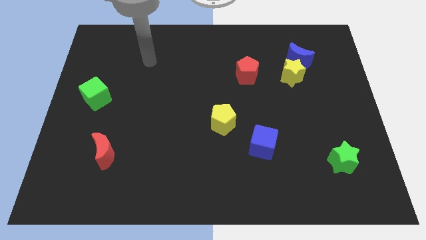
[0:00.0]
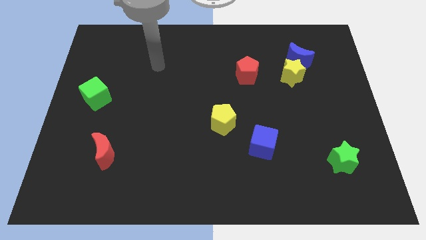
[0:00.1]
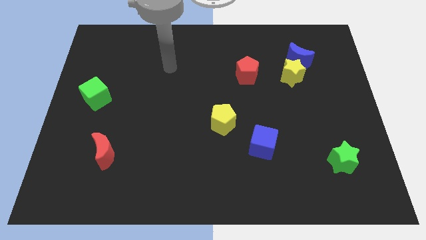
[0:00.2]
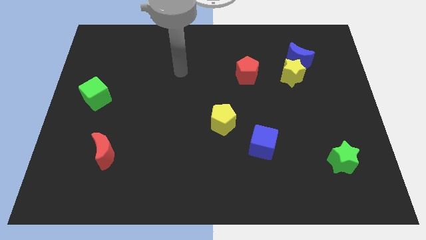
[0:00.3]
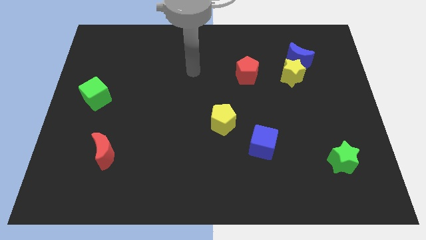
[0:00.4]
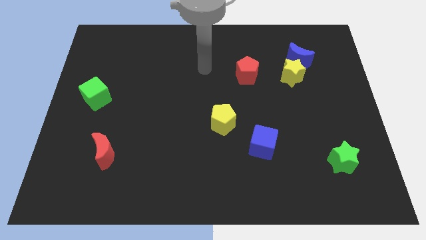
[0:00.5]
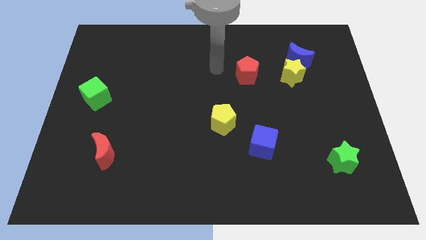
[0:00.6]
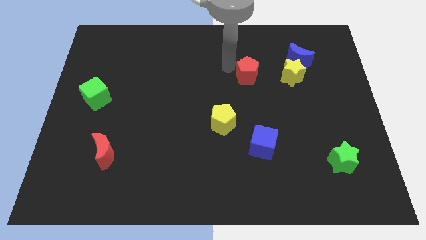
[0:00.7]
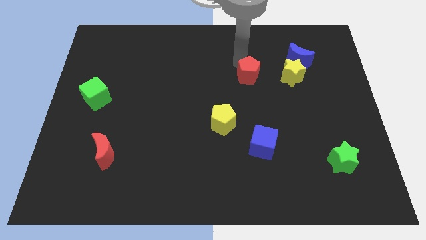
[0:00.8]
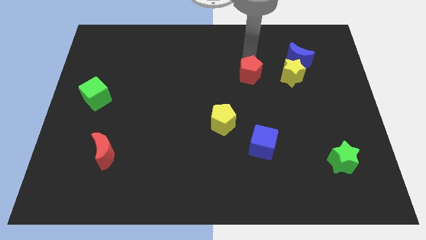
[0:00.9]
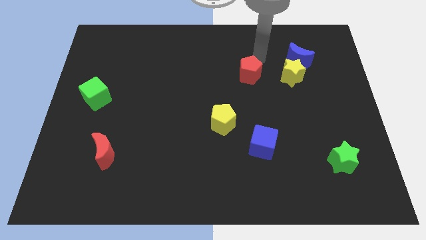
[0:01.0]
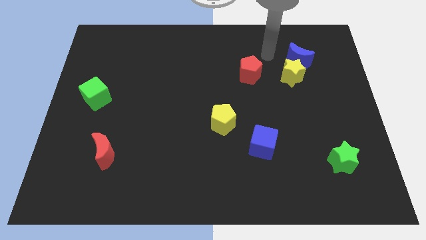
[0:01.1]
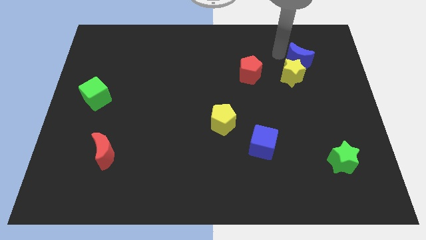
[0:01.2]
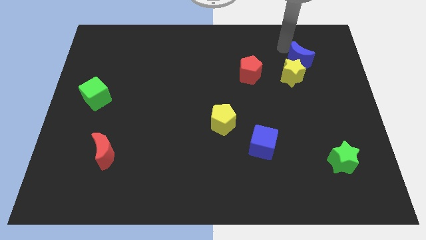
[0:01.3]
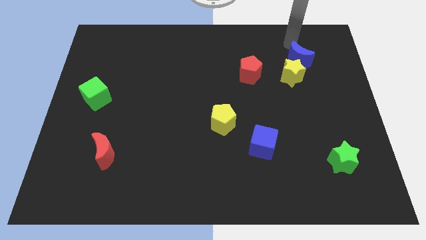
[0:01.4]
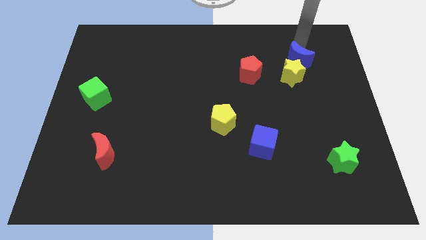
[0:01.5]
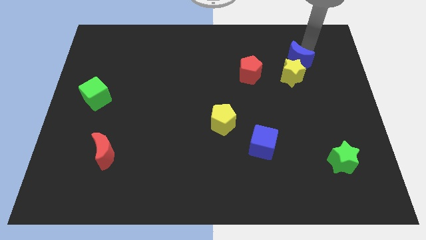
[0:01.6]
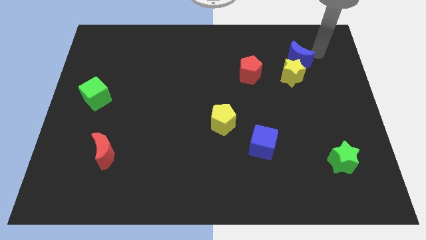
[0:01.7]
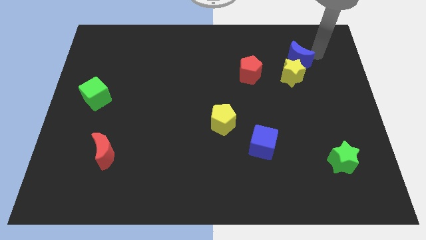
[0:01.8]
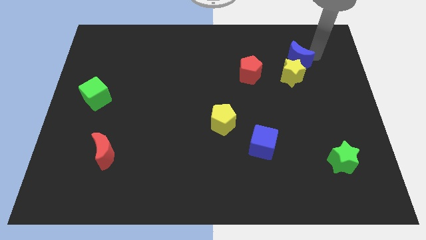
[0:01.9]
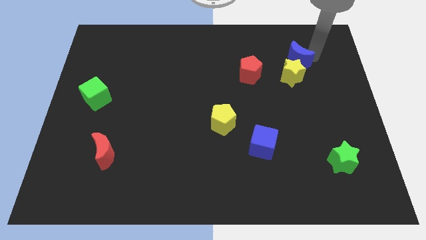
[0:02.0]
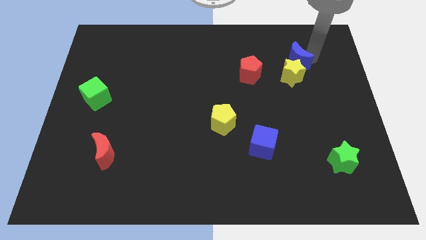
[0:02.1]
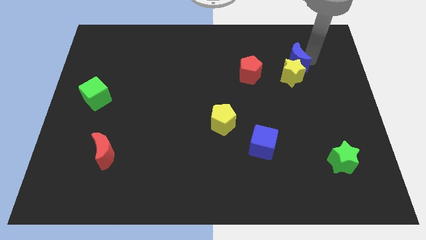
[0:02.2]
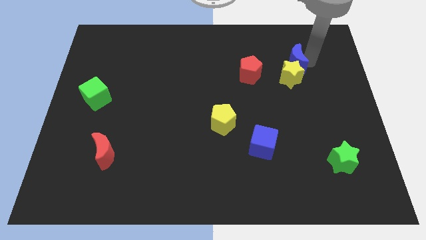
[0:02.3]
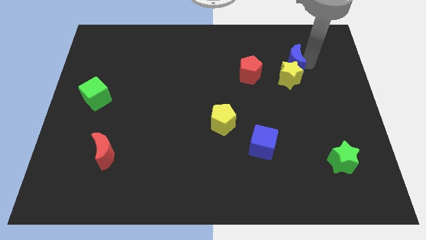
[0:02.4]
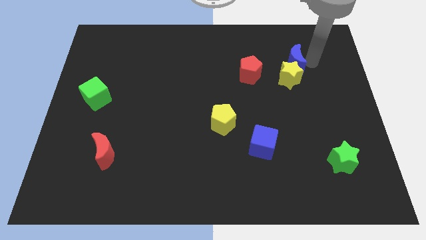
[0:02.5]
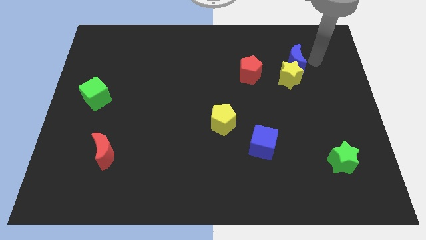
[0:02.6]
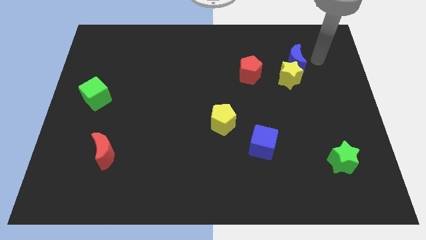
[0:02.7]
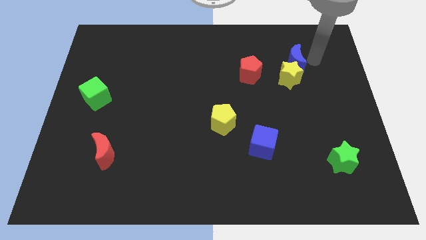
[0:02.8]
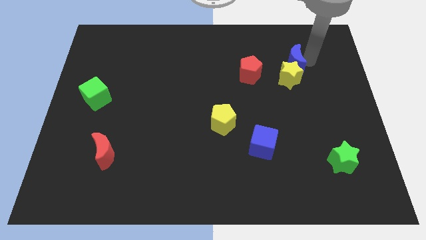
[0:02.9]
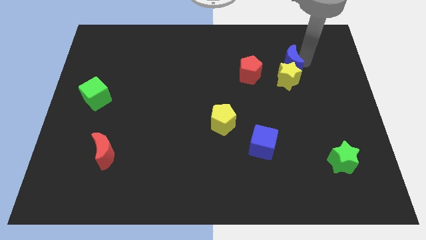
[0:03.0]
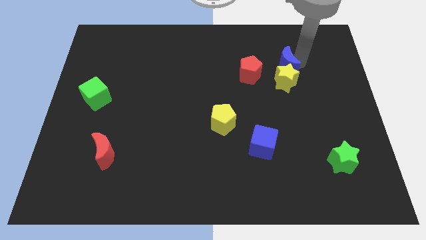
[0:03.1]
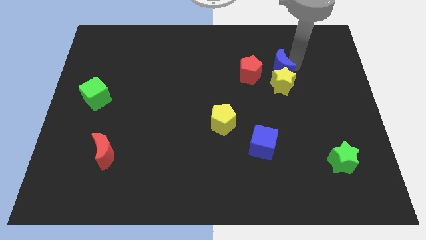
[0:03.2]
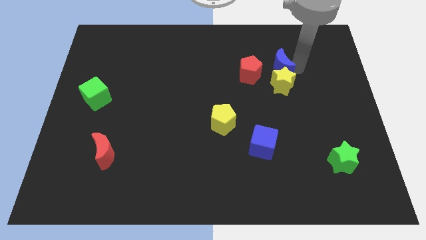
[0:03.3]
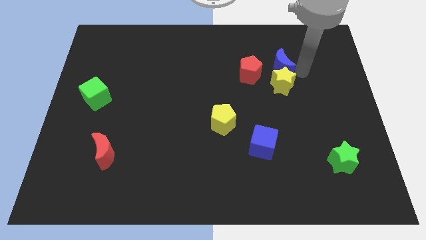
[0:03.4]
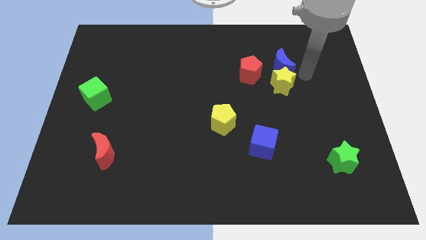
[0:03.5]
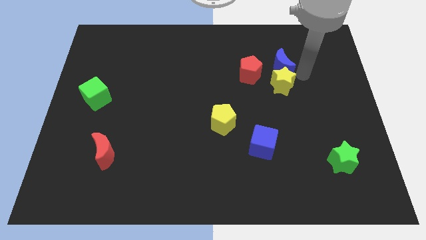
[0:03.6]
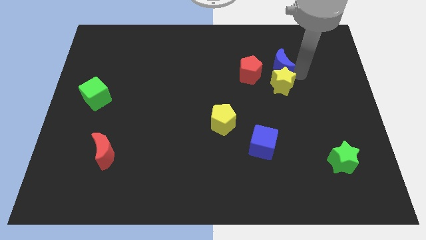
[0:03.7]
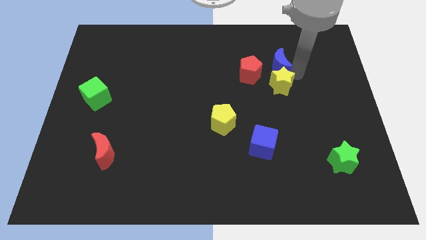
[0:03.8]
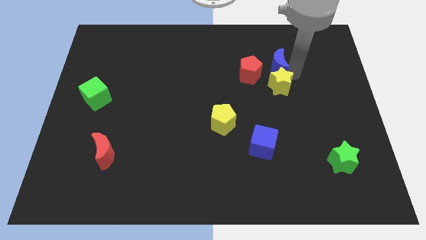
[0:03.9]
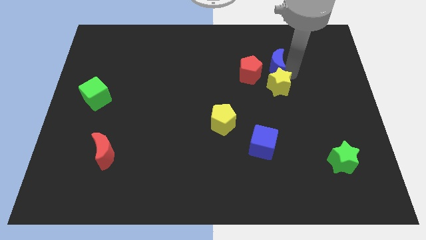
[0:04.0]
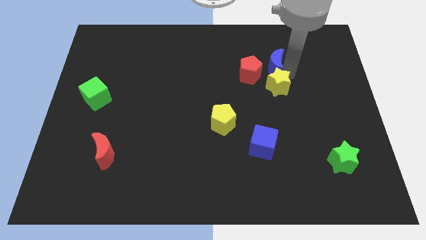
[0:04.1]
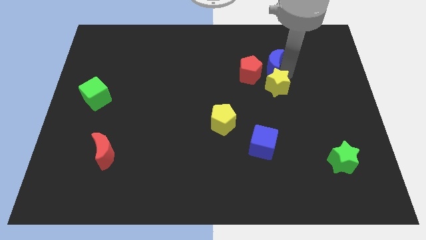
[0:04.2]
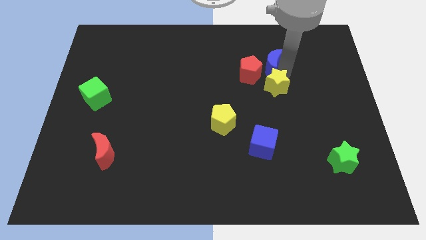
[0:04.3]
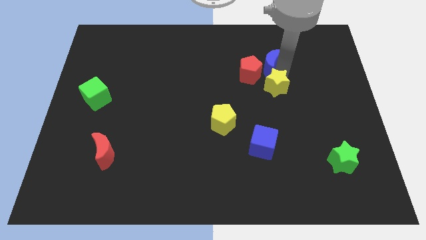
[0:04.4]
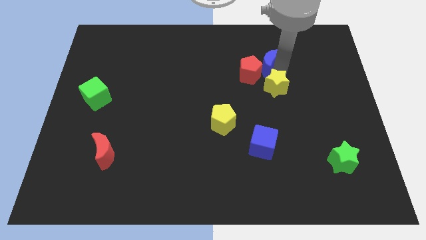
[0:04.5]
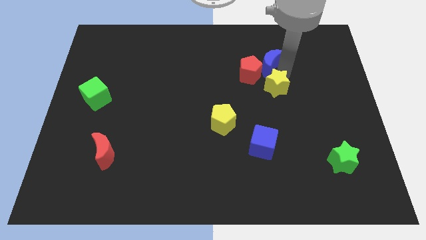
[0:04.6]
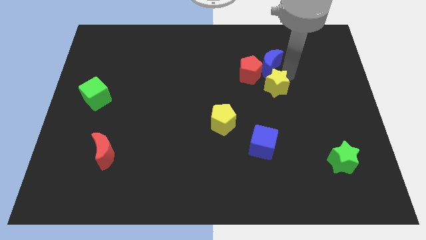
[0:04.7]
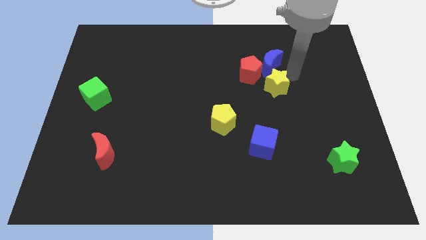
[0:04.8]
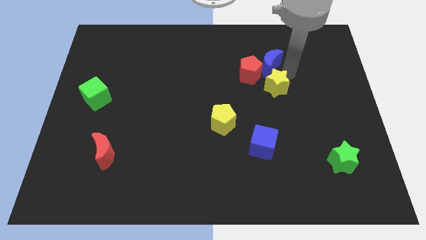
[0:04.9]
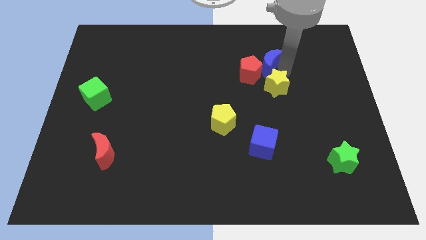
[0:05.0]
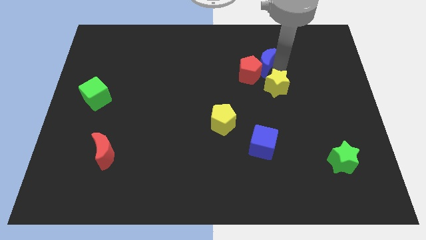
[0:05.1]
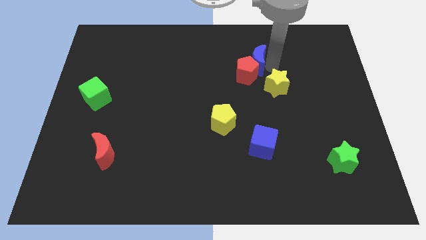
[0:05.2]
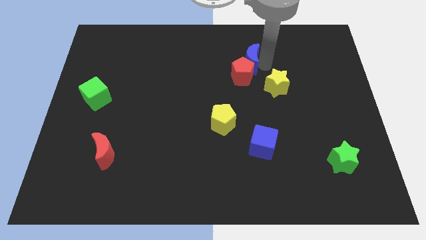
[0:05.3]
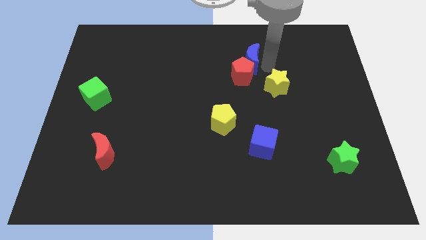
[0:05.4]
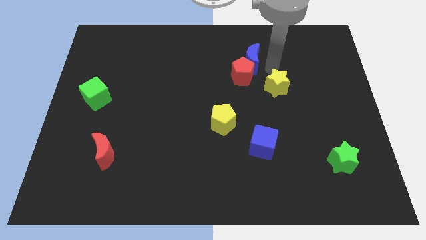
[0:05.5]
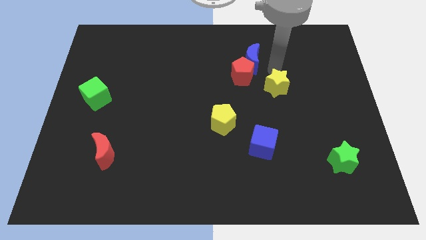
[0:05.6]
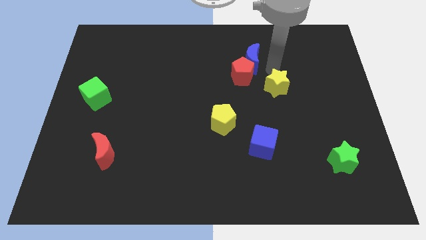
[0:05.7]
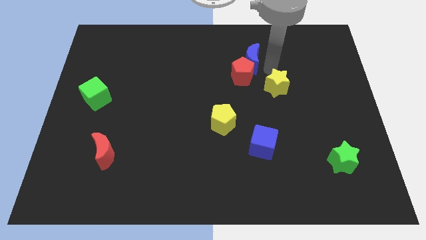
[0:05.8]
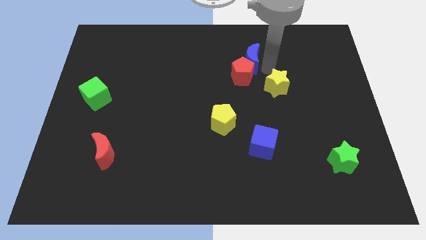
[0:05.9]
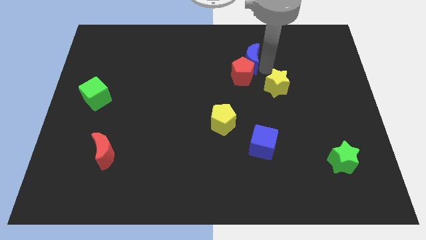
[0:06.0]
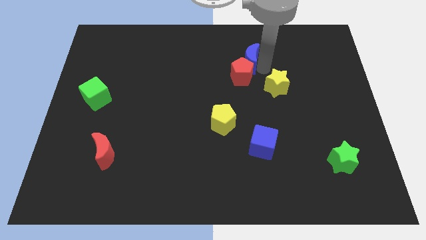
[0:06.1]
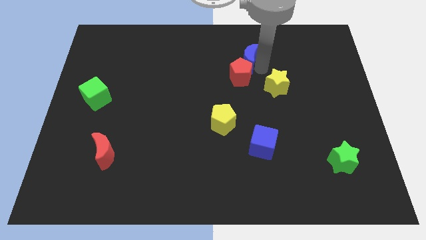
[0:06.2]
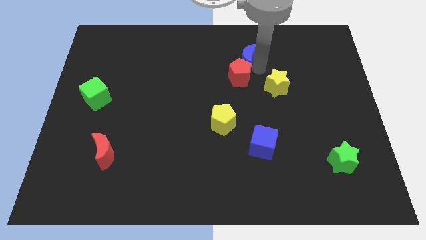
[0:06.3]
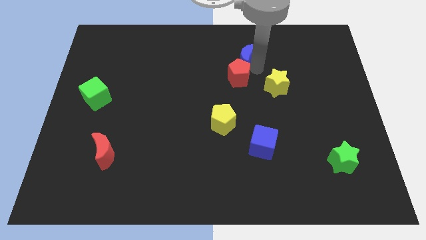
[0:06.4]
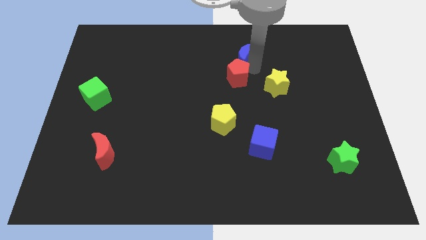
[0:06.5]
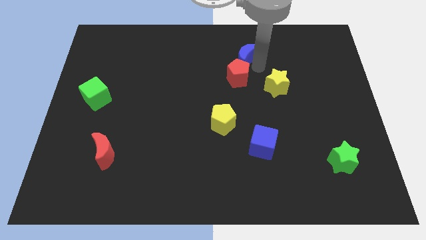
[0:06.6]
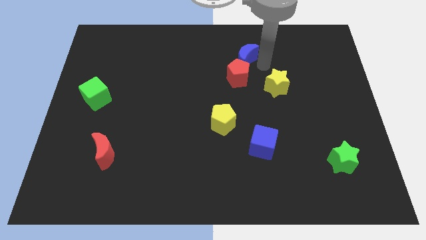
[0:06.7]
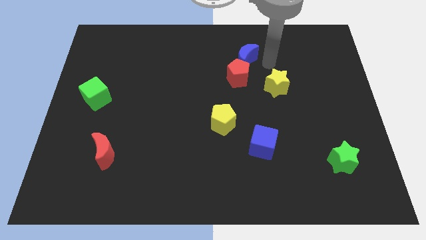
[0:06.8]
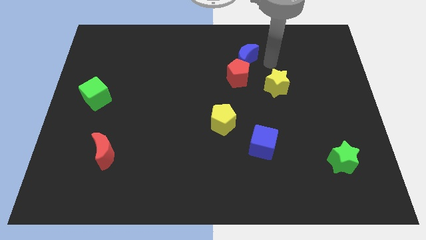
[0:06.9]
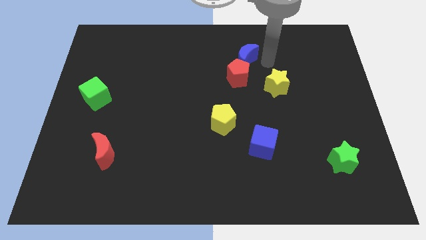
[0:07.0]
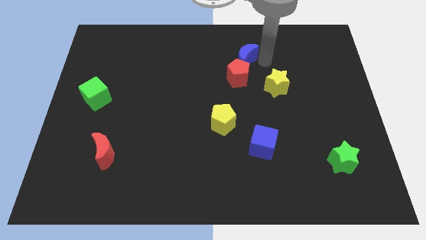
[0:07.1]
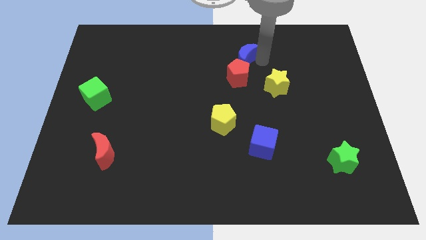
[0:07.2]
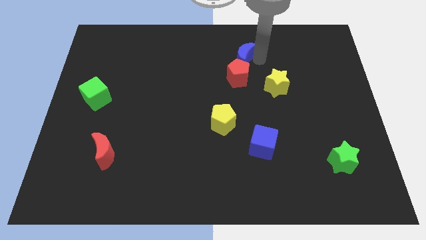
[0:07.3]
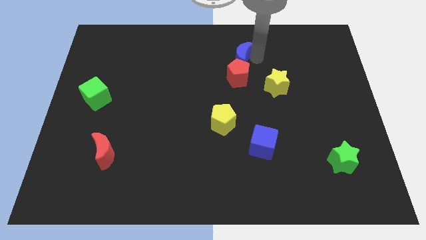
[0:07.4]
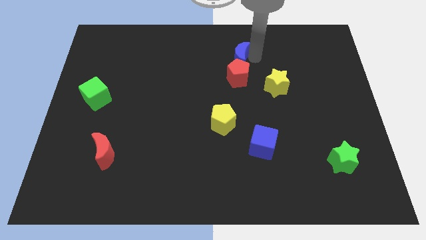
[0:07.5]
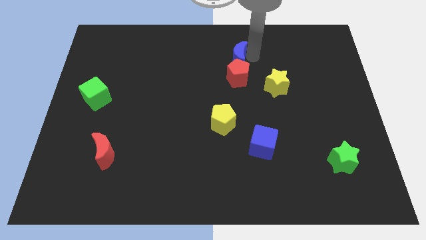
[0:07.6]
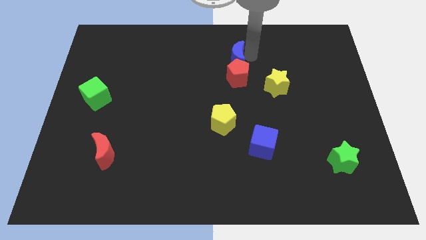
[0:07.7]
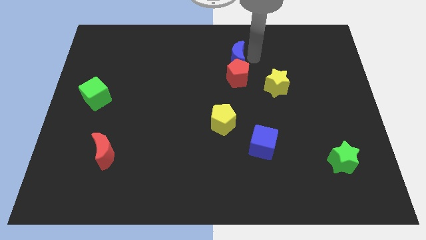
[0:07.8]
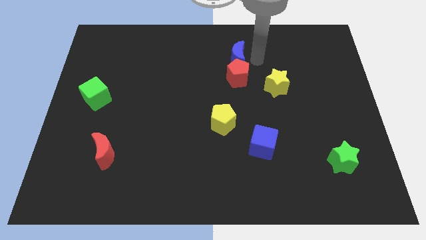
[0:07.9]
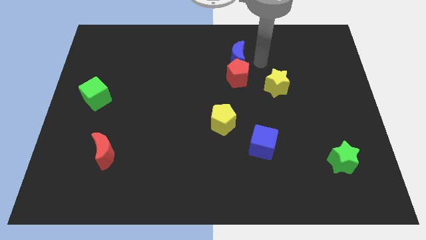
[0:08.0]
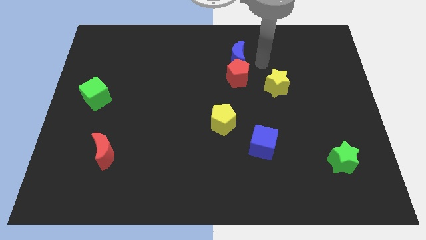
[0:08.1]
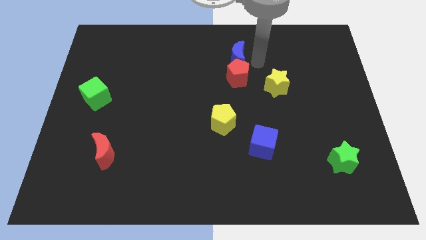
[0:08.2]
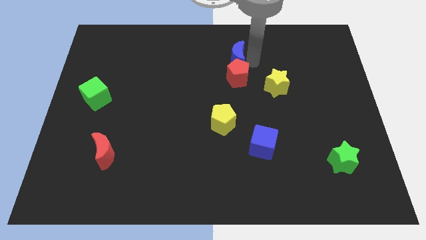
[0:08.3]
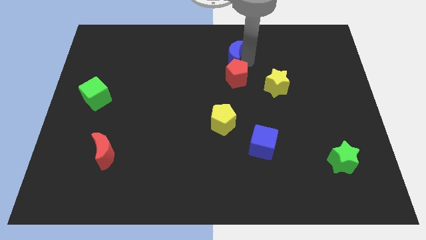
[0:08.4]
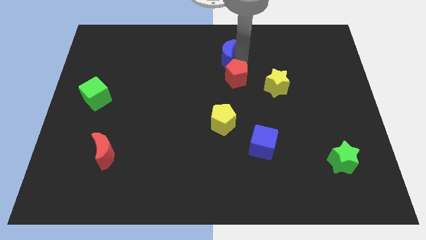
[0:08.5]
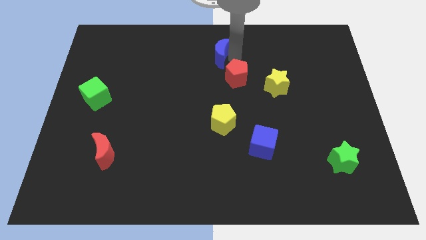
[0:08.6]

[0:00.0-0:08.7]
slide the blue moon to the left
